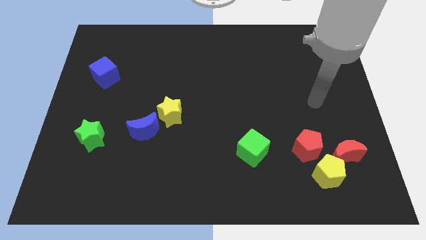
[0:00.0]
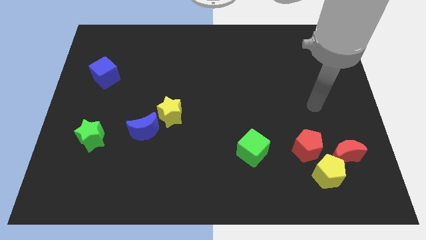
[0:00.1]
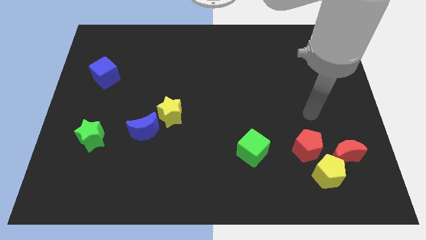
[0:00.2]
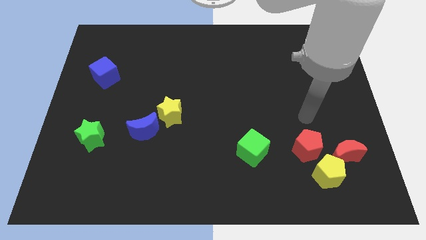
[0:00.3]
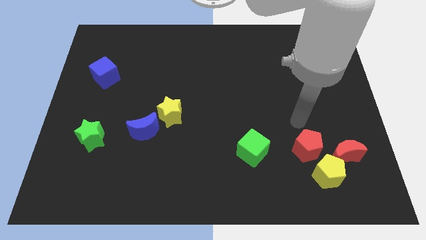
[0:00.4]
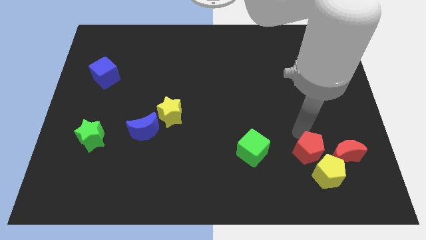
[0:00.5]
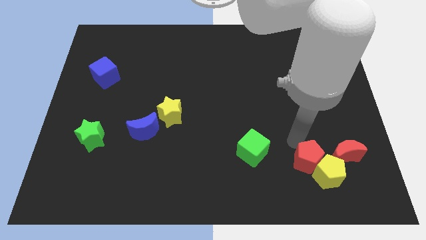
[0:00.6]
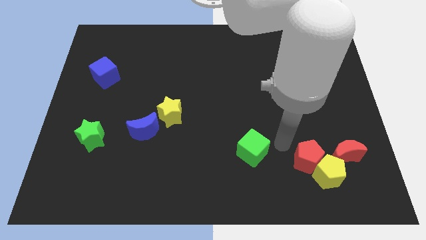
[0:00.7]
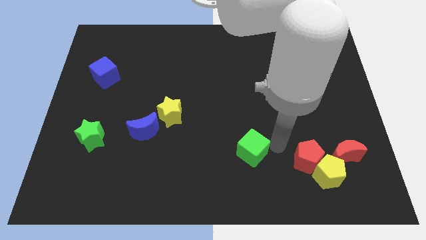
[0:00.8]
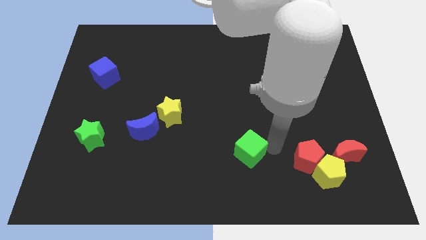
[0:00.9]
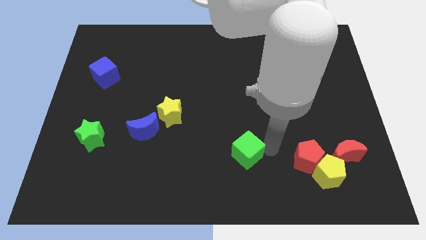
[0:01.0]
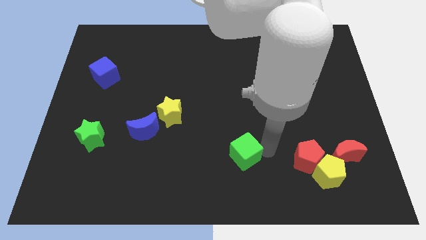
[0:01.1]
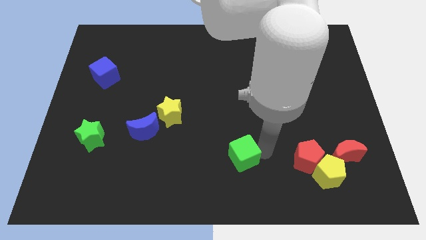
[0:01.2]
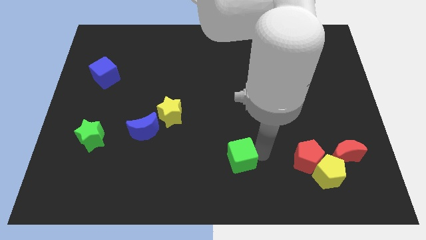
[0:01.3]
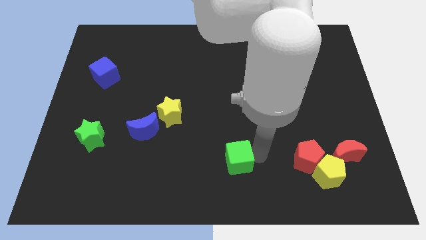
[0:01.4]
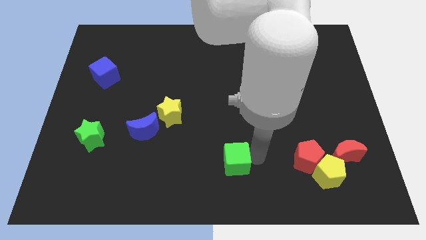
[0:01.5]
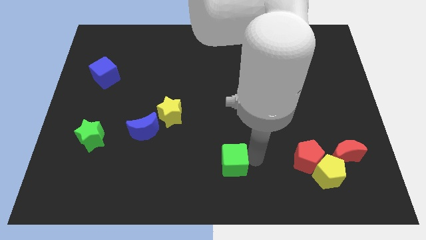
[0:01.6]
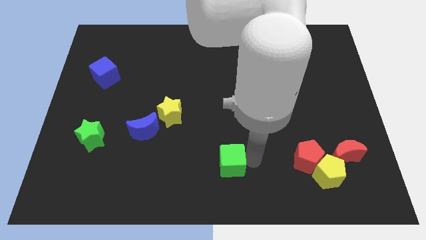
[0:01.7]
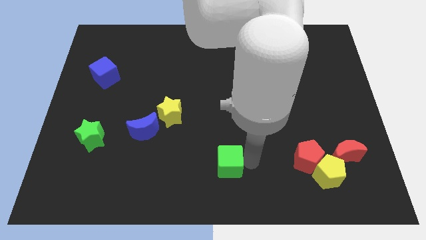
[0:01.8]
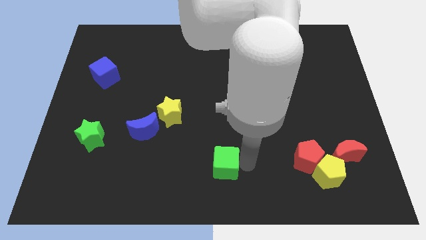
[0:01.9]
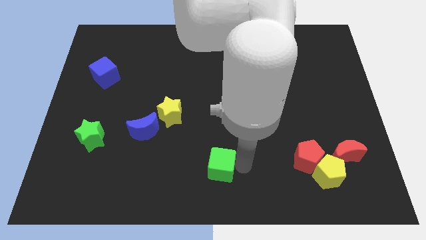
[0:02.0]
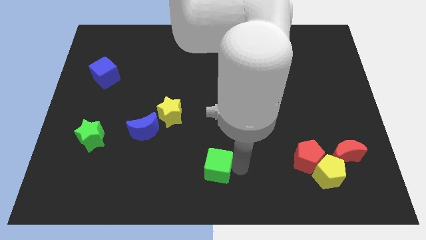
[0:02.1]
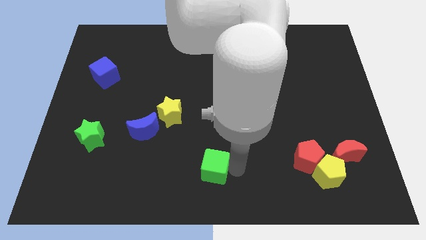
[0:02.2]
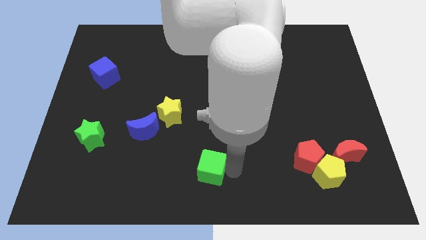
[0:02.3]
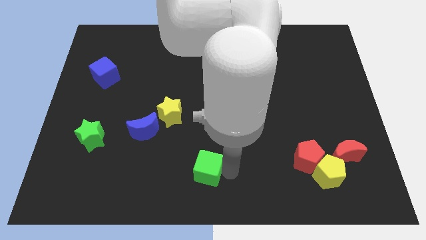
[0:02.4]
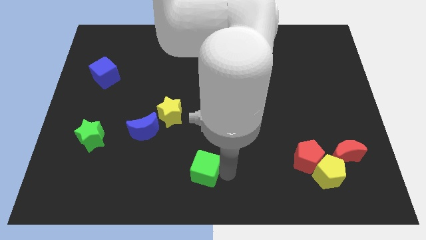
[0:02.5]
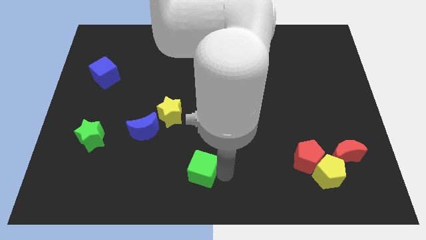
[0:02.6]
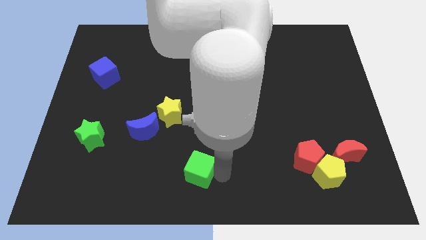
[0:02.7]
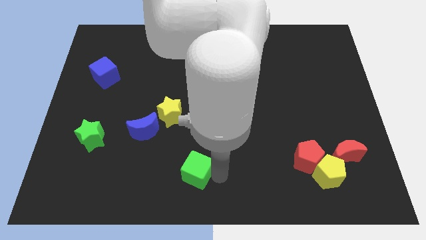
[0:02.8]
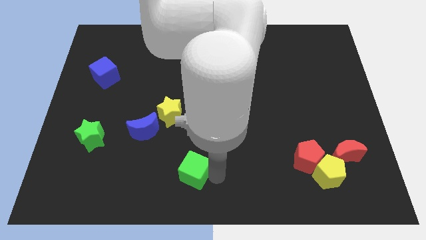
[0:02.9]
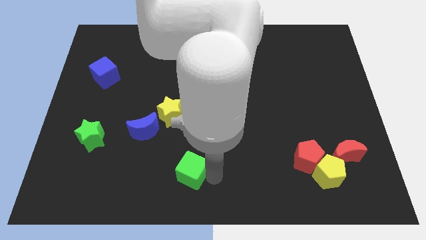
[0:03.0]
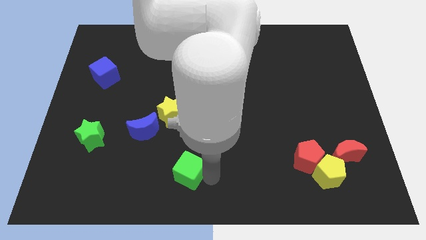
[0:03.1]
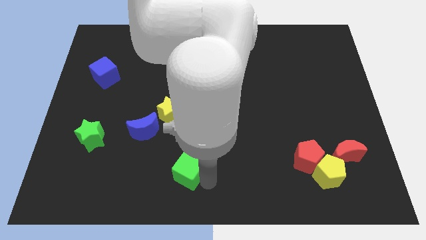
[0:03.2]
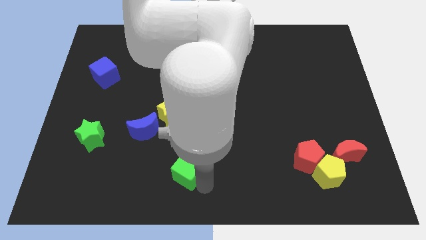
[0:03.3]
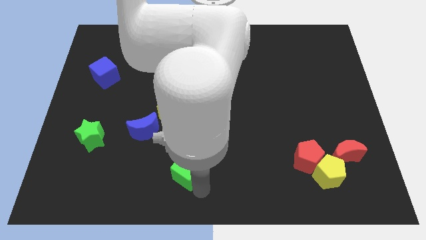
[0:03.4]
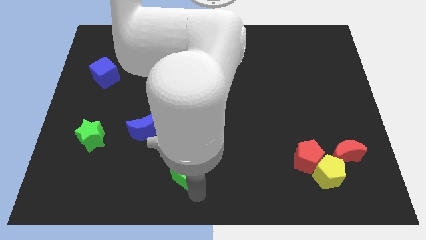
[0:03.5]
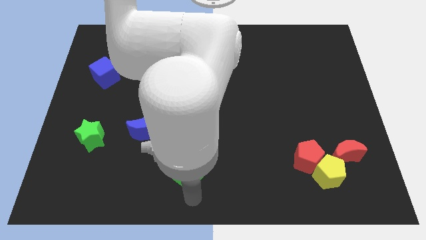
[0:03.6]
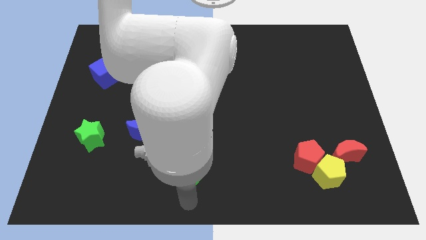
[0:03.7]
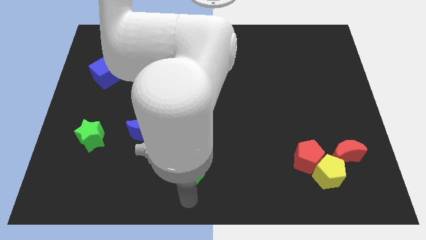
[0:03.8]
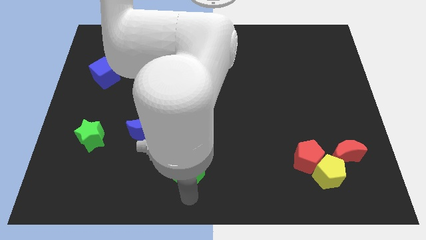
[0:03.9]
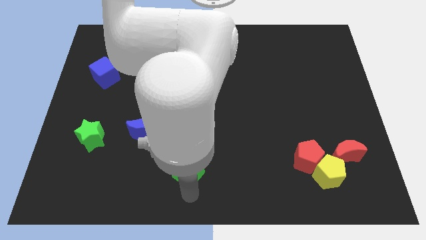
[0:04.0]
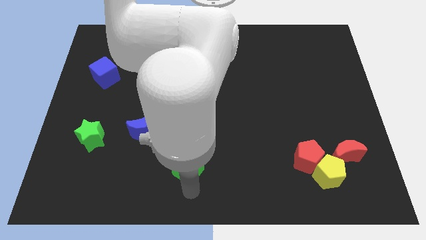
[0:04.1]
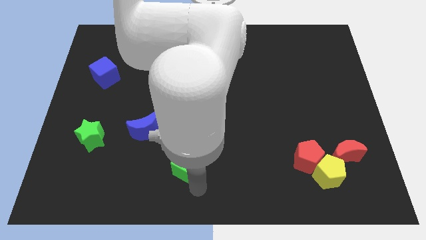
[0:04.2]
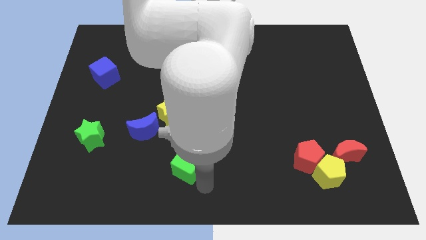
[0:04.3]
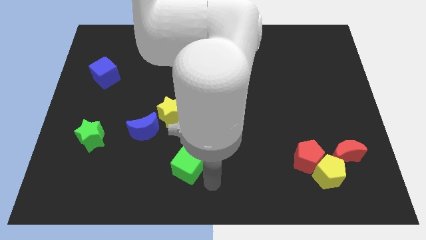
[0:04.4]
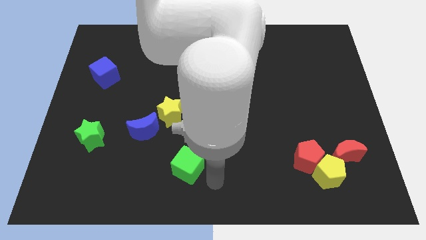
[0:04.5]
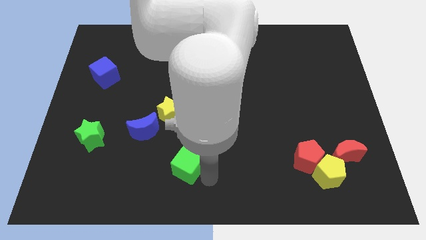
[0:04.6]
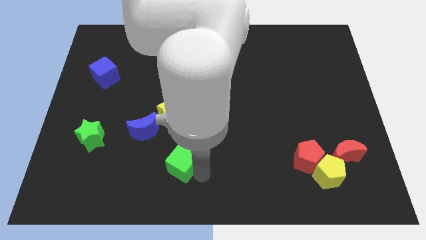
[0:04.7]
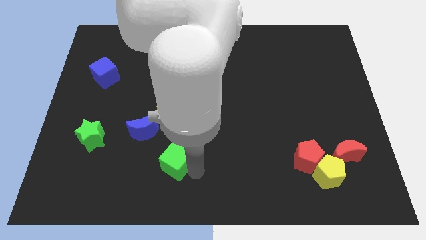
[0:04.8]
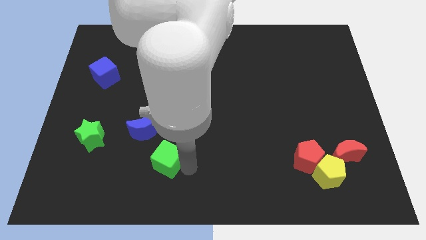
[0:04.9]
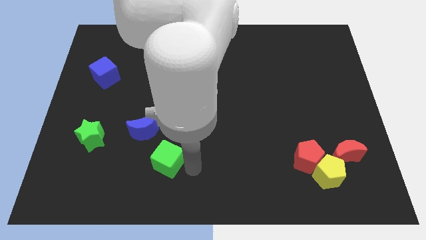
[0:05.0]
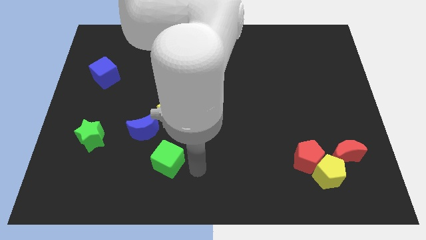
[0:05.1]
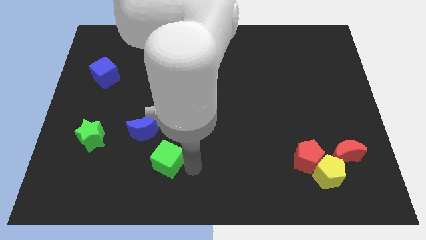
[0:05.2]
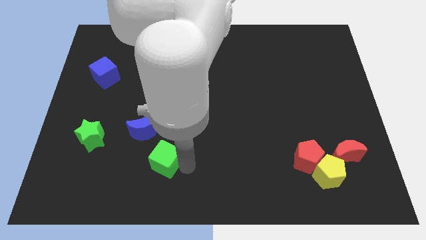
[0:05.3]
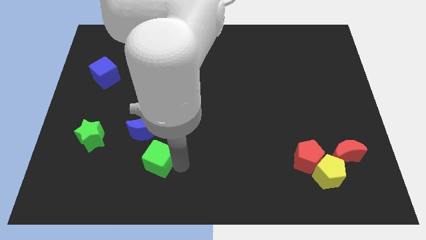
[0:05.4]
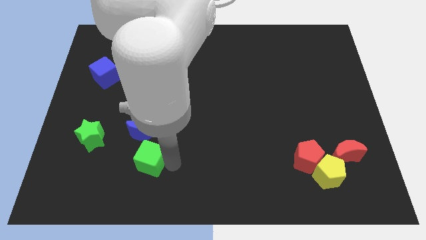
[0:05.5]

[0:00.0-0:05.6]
push the green cube left

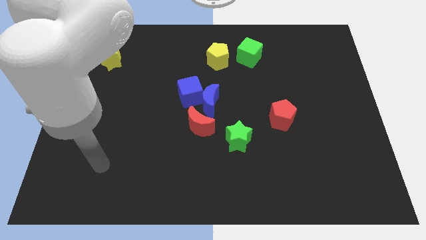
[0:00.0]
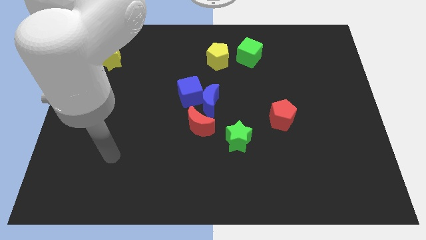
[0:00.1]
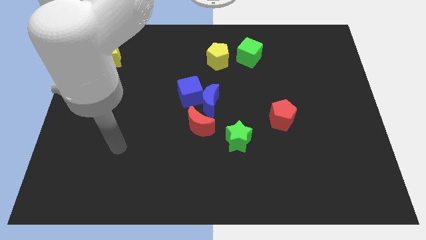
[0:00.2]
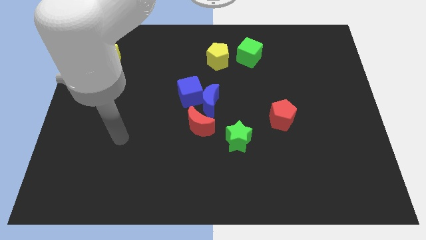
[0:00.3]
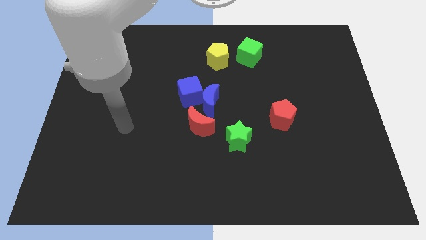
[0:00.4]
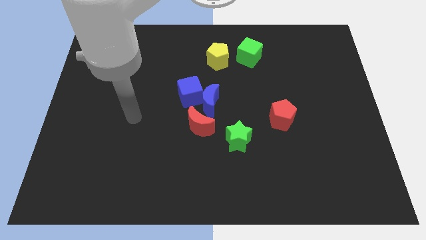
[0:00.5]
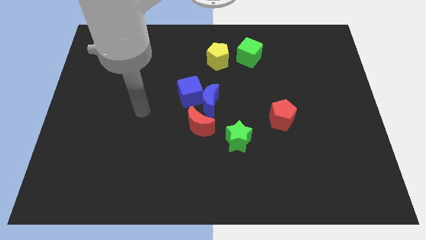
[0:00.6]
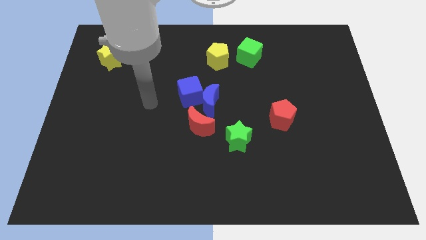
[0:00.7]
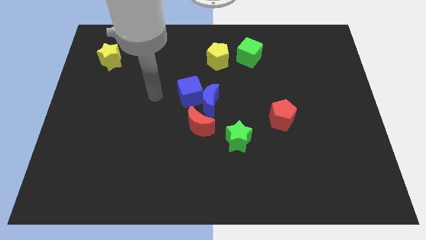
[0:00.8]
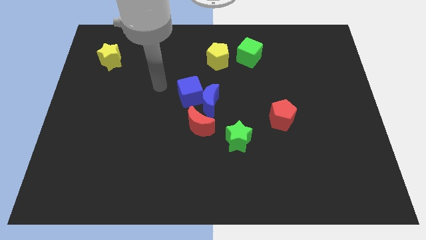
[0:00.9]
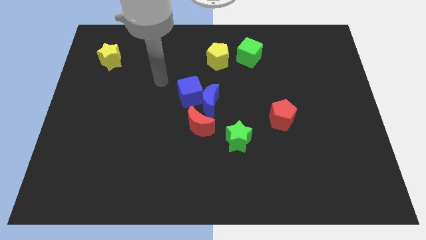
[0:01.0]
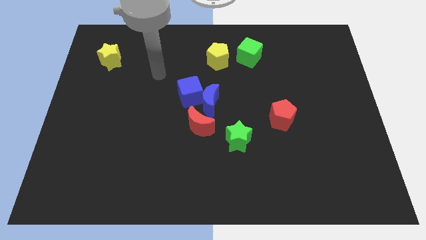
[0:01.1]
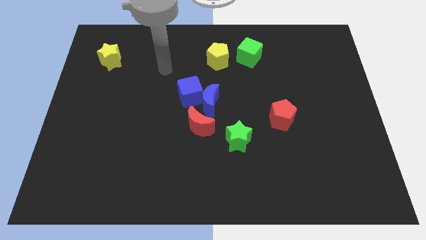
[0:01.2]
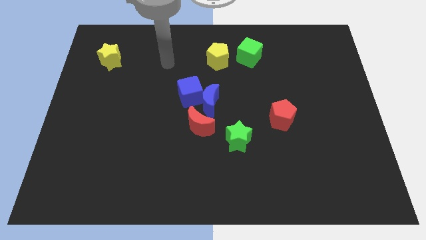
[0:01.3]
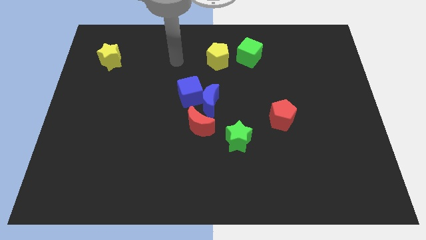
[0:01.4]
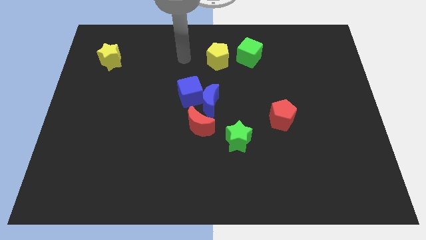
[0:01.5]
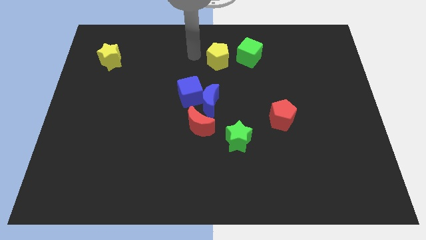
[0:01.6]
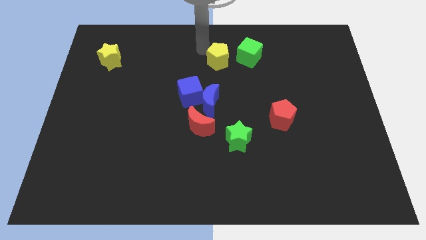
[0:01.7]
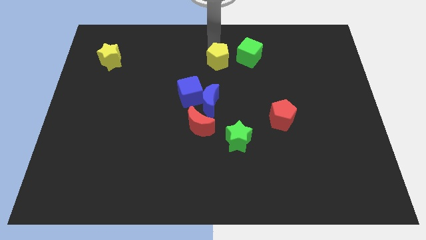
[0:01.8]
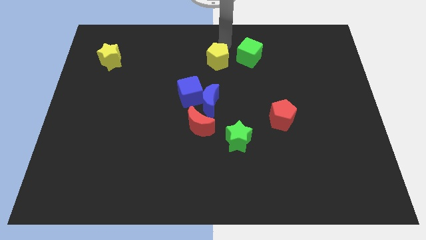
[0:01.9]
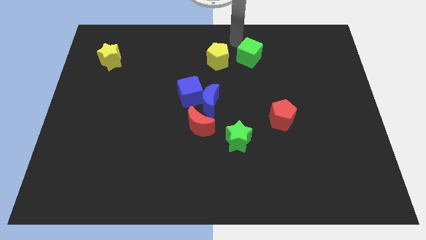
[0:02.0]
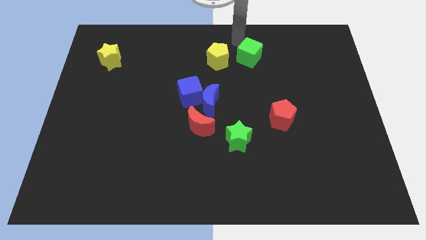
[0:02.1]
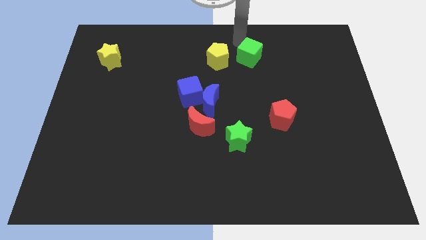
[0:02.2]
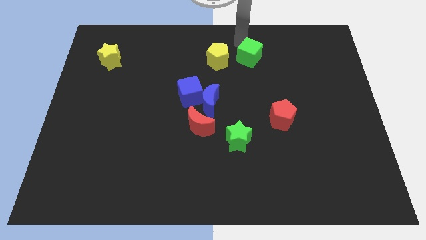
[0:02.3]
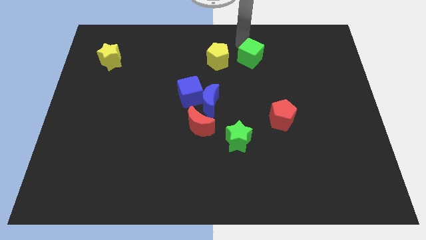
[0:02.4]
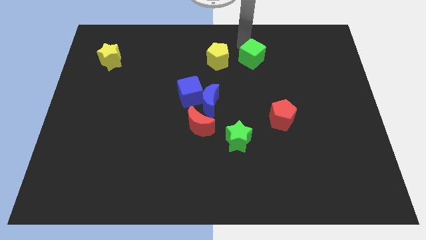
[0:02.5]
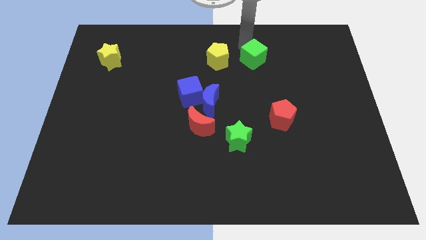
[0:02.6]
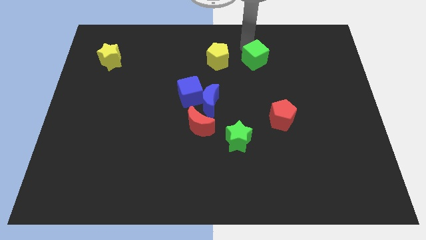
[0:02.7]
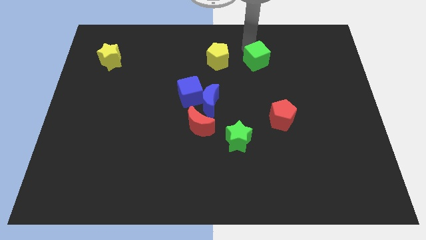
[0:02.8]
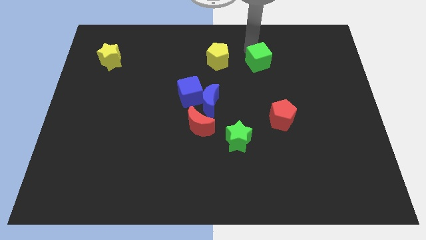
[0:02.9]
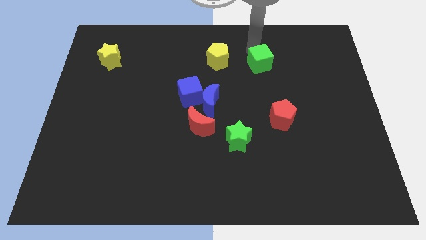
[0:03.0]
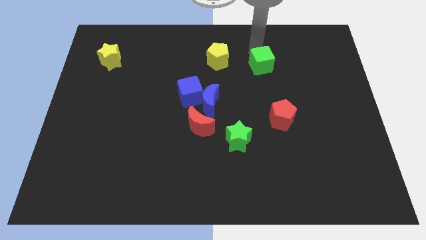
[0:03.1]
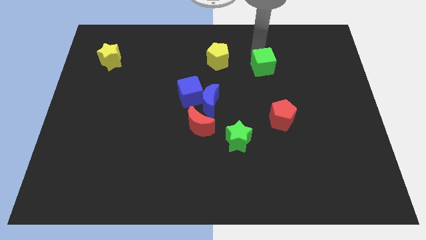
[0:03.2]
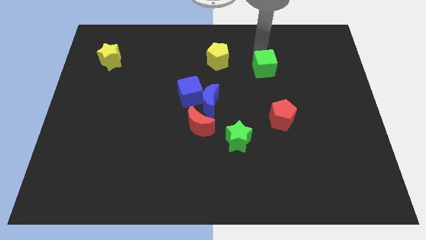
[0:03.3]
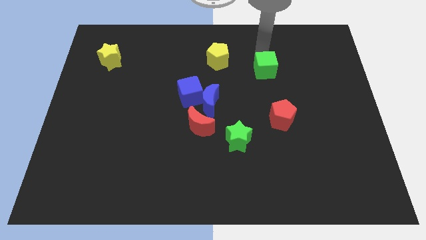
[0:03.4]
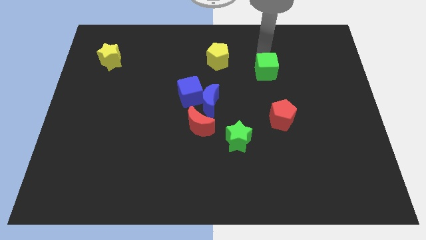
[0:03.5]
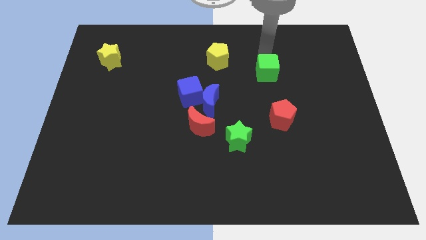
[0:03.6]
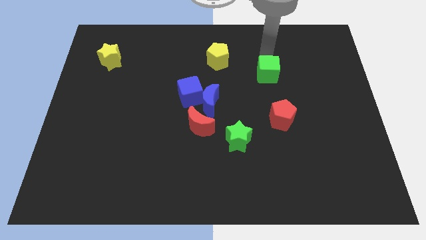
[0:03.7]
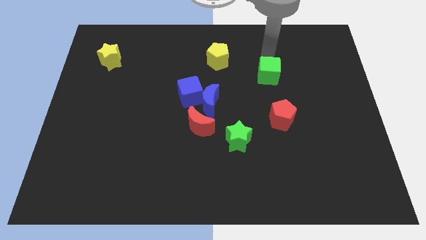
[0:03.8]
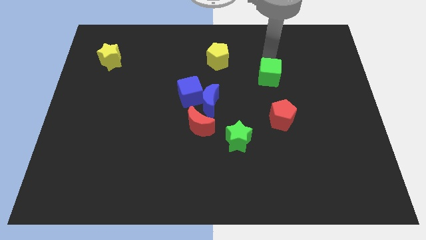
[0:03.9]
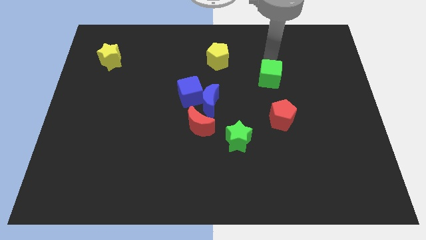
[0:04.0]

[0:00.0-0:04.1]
slightly move the green cube down
